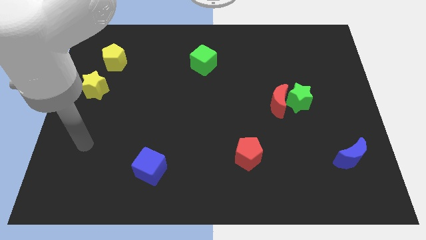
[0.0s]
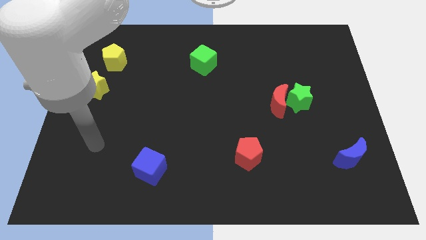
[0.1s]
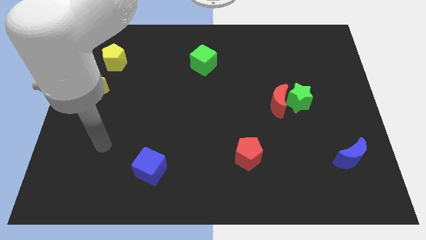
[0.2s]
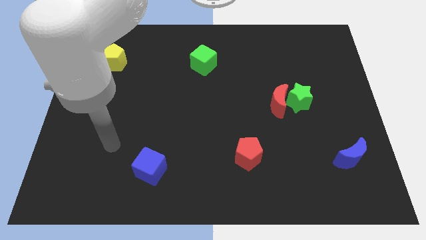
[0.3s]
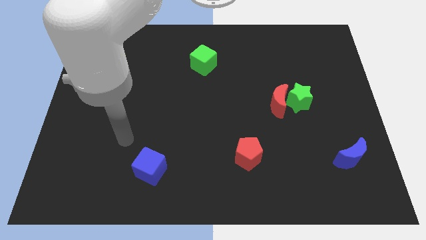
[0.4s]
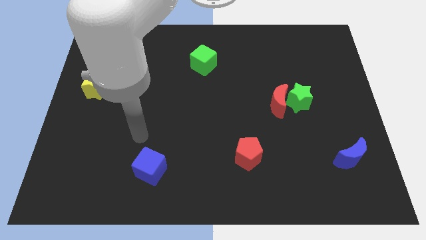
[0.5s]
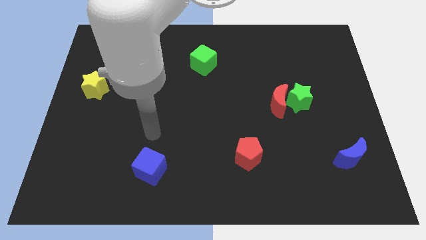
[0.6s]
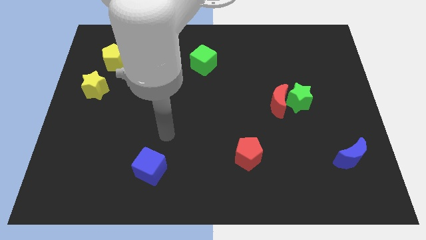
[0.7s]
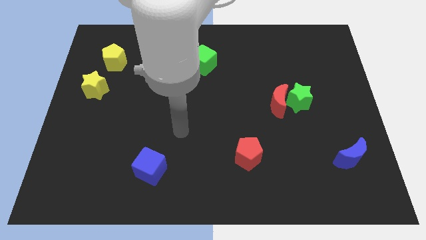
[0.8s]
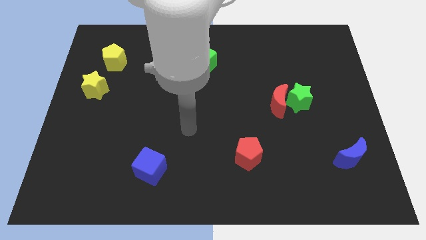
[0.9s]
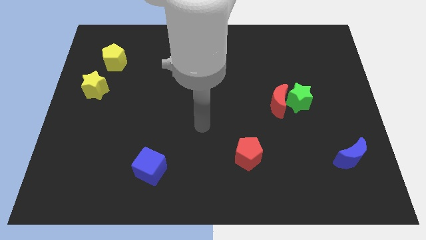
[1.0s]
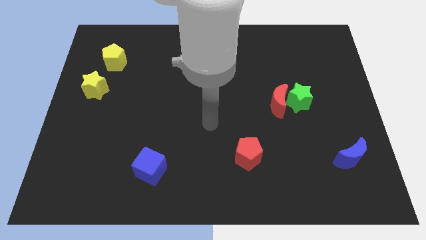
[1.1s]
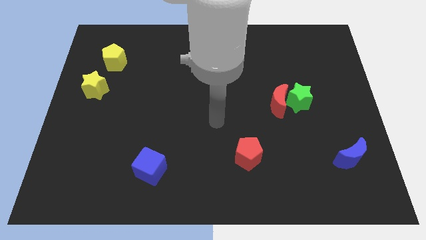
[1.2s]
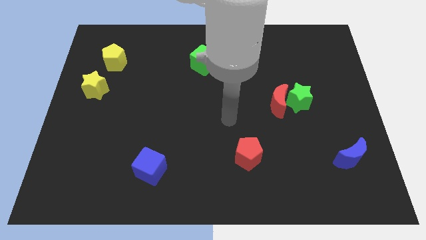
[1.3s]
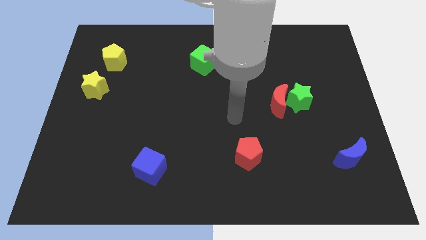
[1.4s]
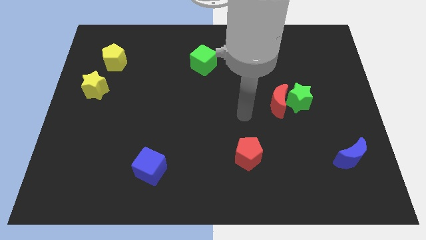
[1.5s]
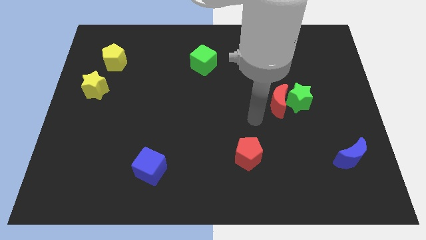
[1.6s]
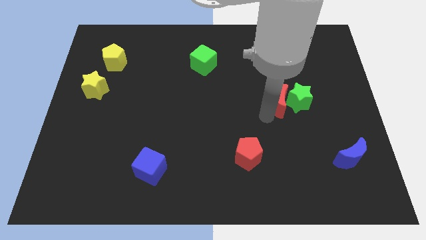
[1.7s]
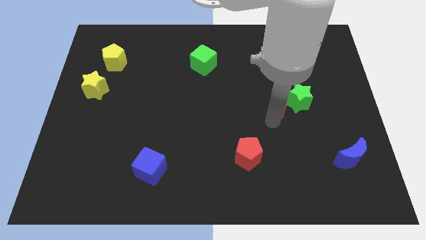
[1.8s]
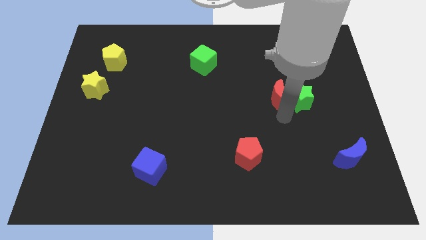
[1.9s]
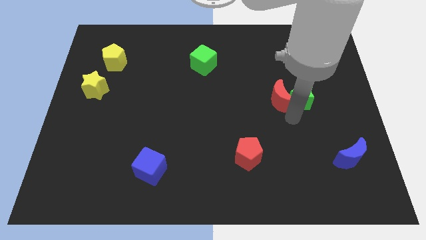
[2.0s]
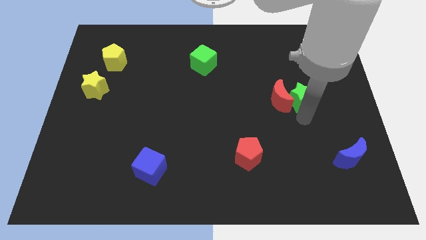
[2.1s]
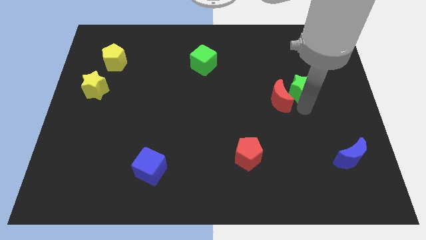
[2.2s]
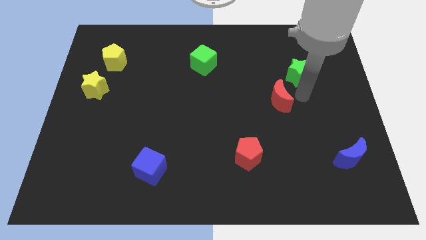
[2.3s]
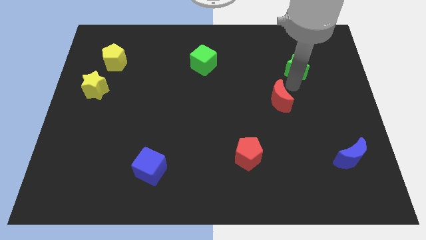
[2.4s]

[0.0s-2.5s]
separate the red moon from the green star

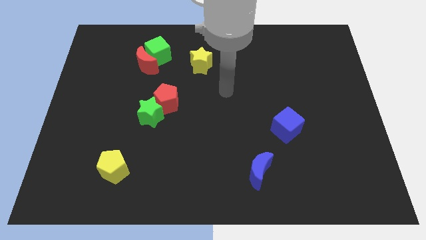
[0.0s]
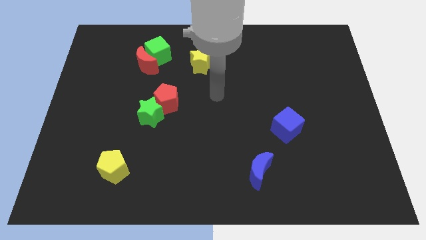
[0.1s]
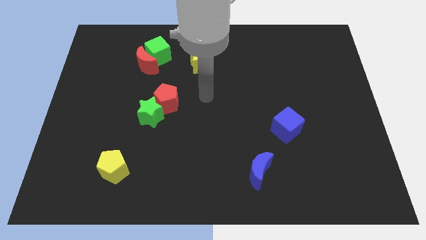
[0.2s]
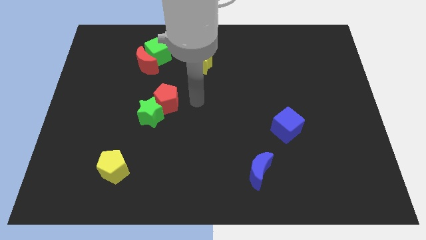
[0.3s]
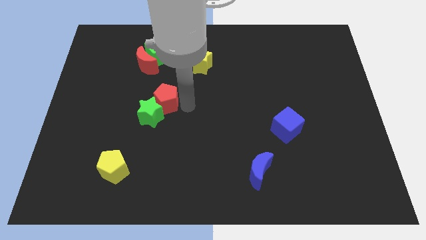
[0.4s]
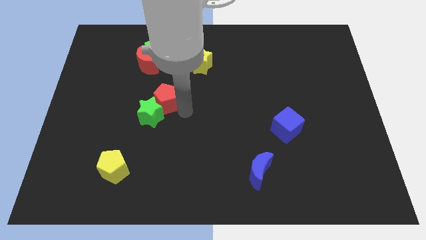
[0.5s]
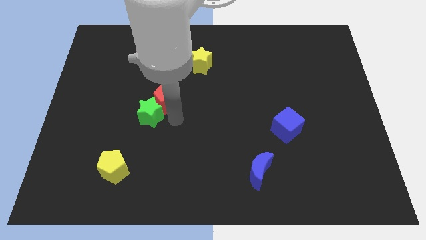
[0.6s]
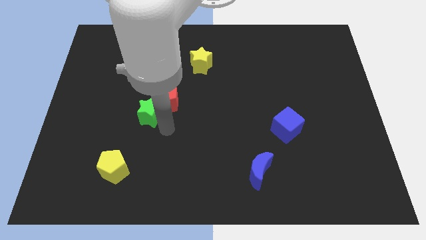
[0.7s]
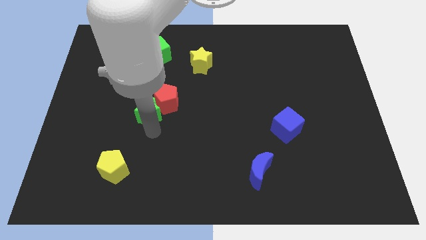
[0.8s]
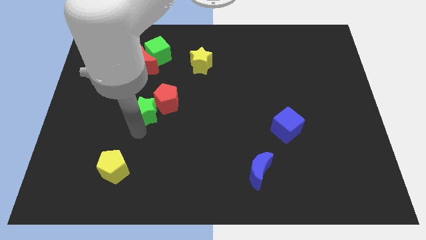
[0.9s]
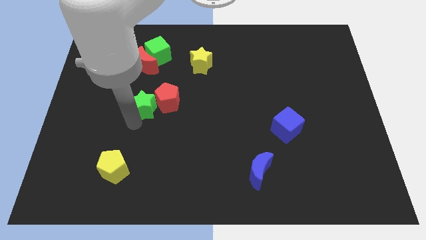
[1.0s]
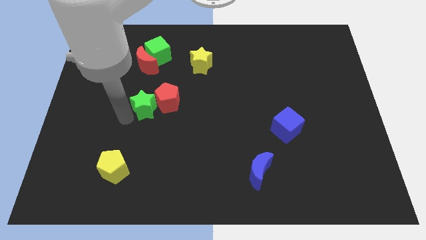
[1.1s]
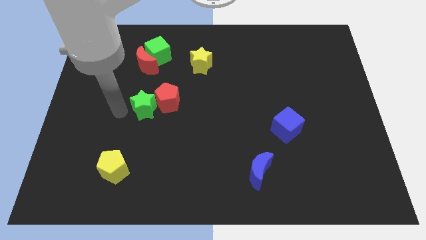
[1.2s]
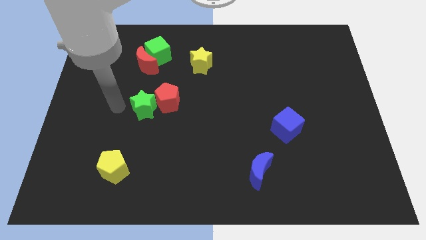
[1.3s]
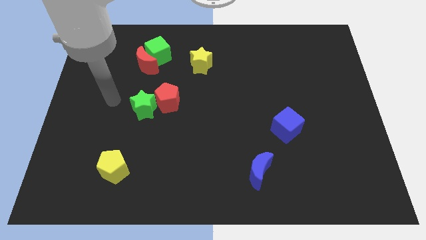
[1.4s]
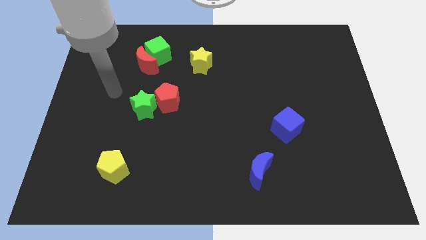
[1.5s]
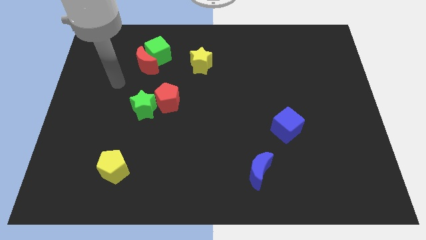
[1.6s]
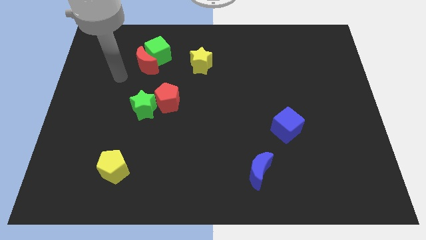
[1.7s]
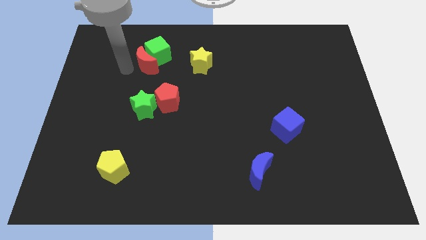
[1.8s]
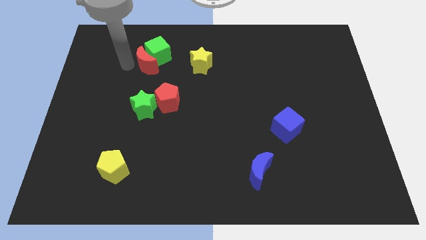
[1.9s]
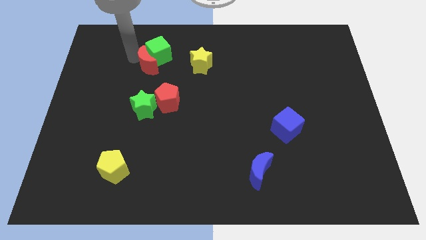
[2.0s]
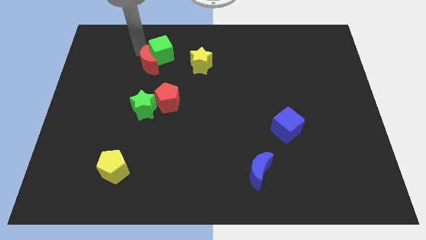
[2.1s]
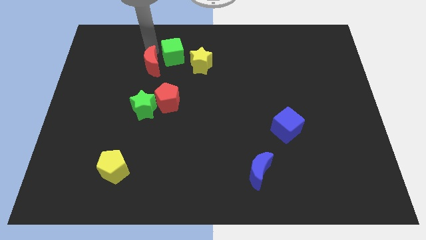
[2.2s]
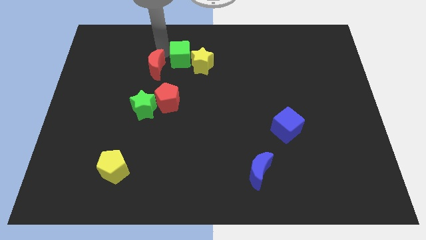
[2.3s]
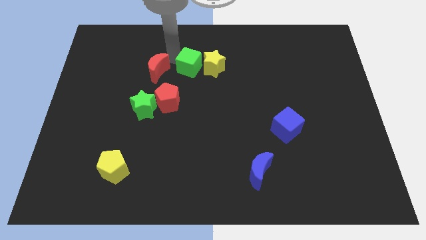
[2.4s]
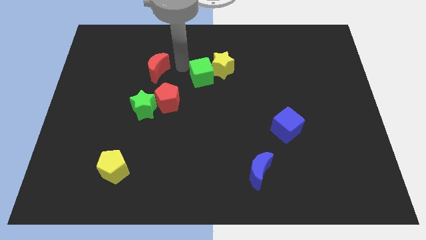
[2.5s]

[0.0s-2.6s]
pull the red moon apart from the green cube

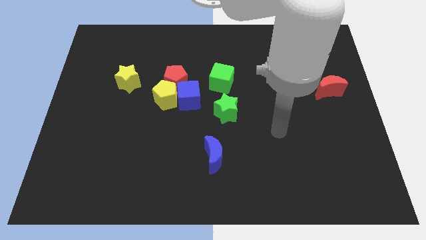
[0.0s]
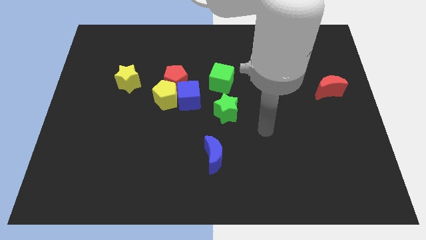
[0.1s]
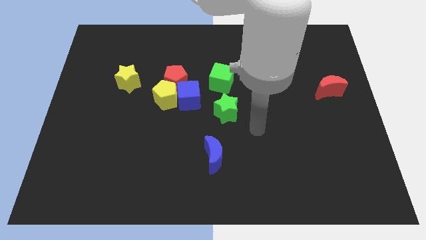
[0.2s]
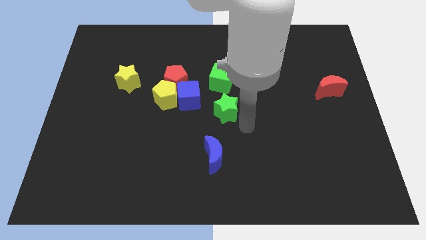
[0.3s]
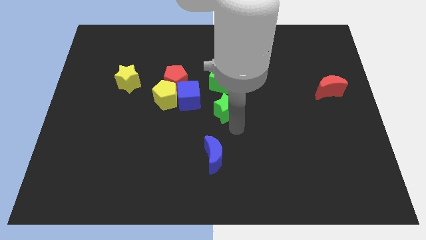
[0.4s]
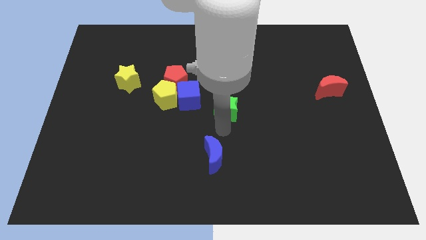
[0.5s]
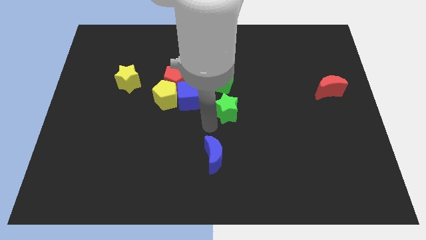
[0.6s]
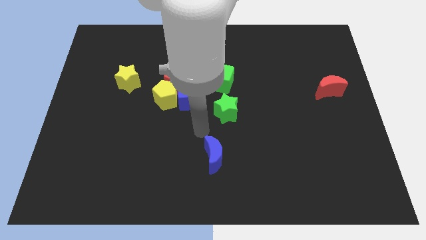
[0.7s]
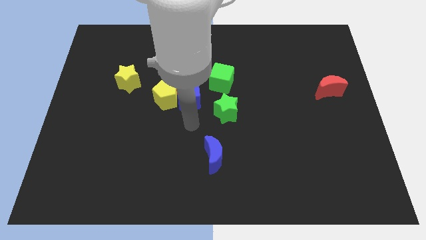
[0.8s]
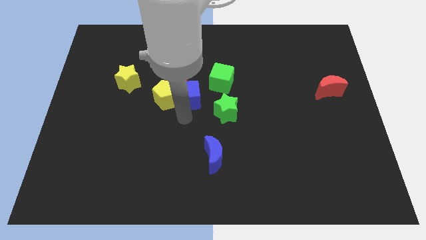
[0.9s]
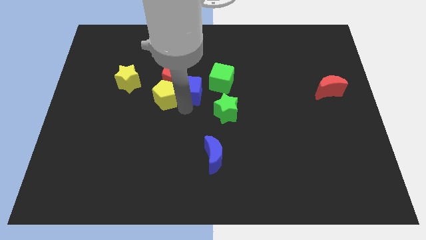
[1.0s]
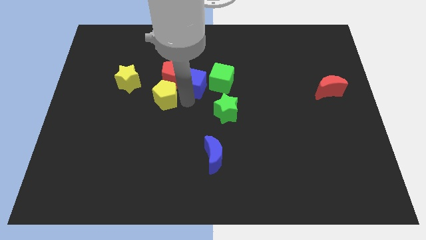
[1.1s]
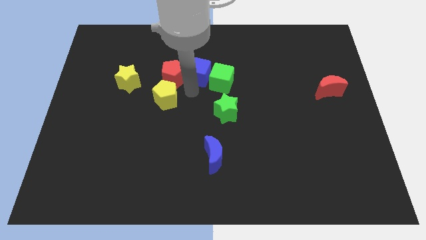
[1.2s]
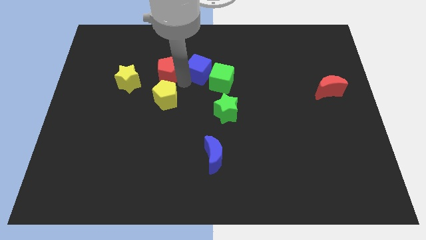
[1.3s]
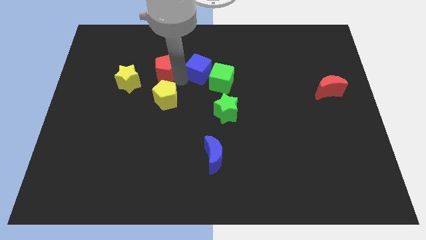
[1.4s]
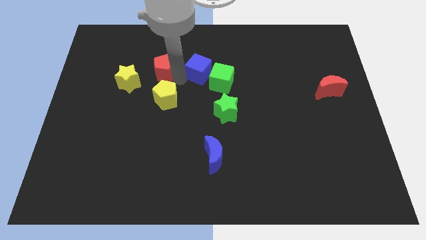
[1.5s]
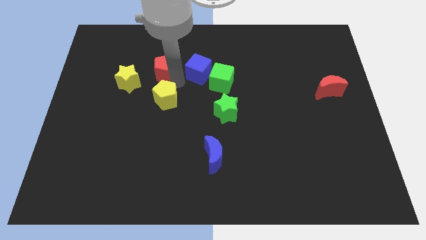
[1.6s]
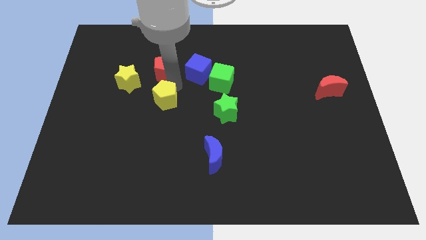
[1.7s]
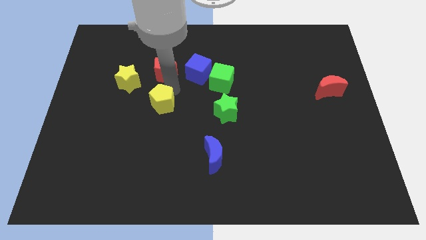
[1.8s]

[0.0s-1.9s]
move the yellow pentagon away from the red pentagon and blue cube

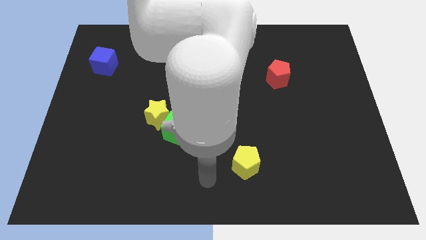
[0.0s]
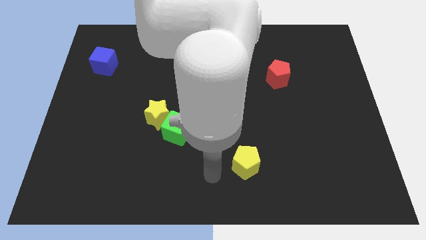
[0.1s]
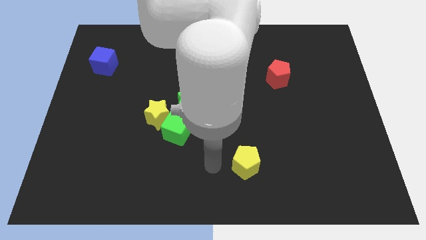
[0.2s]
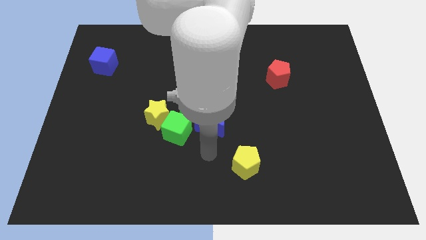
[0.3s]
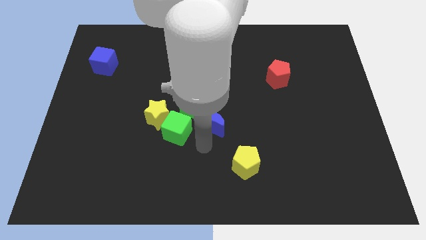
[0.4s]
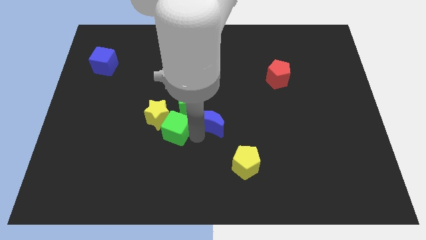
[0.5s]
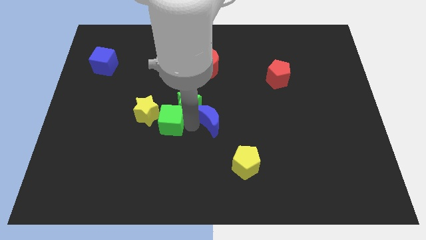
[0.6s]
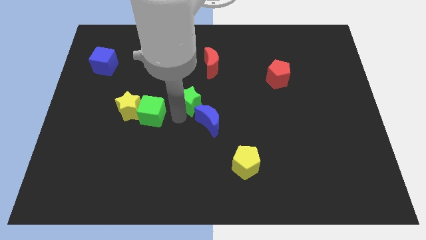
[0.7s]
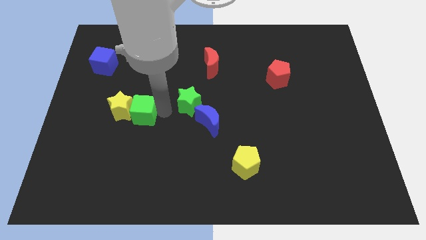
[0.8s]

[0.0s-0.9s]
separate the yellow star from the green cube and green star

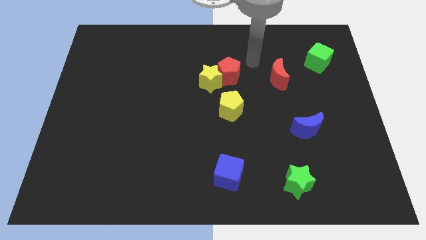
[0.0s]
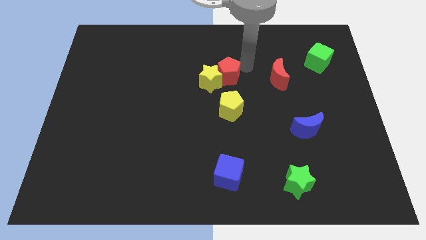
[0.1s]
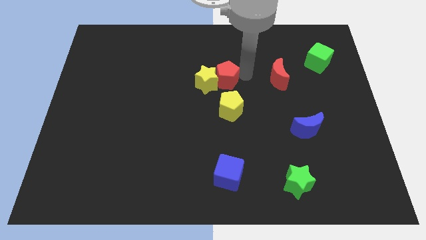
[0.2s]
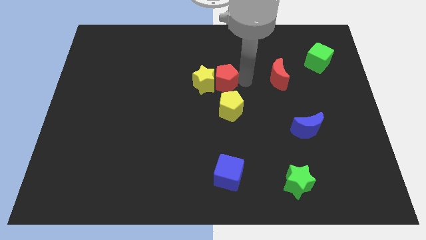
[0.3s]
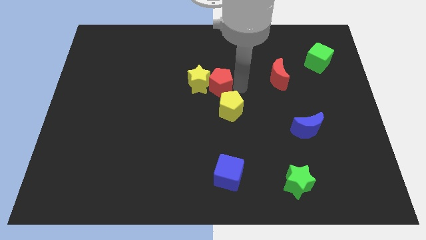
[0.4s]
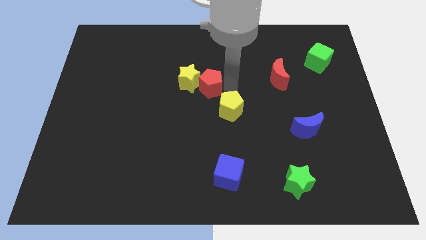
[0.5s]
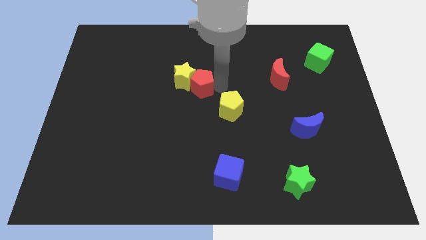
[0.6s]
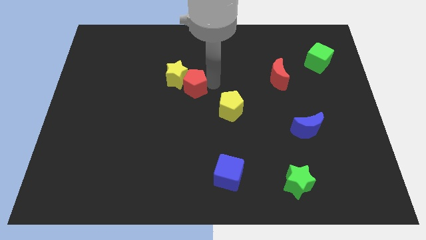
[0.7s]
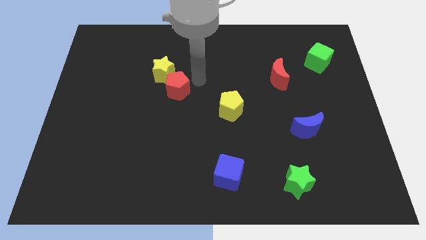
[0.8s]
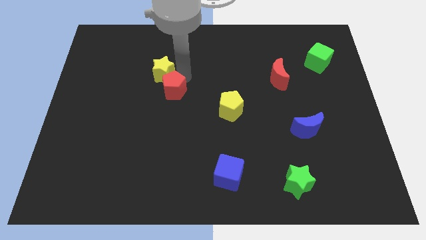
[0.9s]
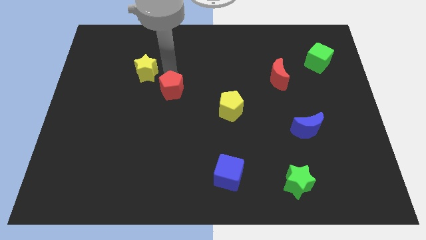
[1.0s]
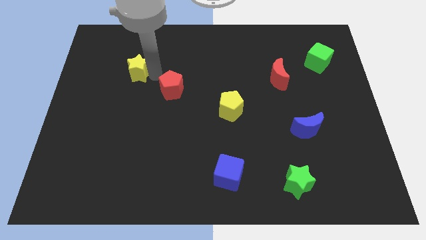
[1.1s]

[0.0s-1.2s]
pull the red pentagon apart from the yellow star
